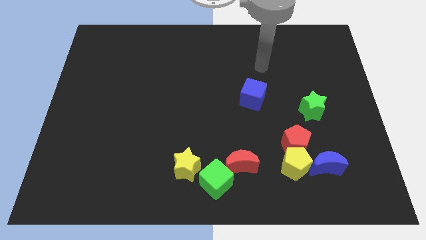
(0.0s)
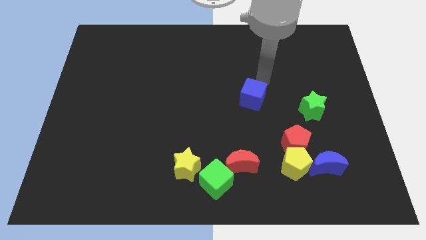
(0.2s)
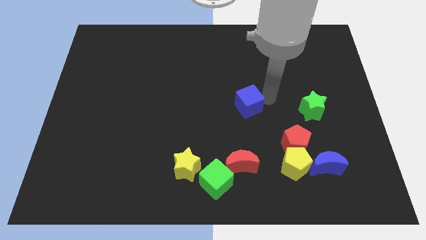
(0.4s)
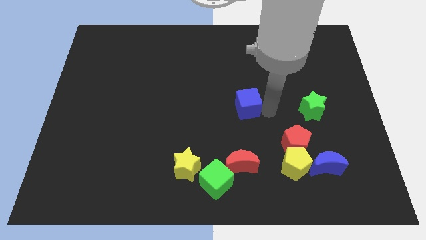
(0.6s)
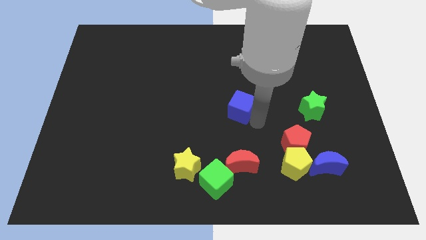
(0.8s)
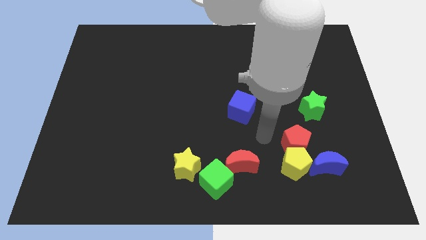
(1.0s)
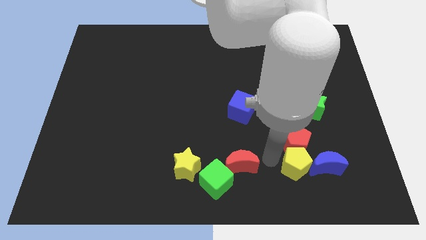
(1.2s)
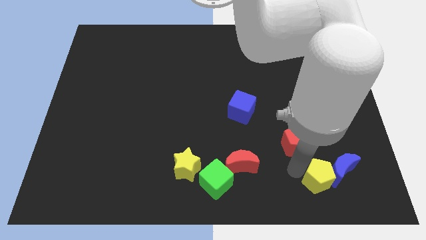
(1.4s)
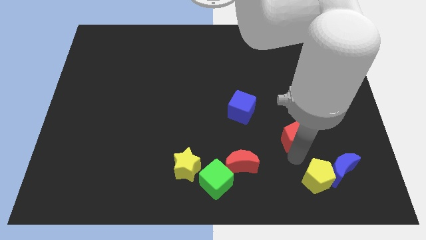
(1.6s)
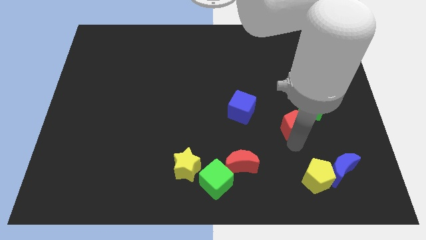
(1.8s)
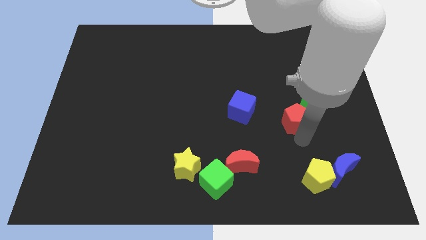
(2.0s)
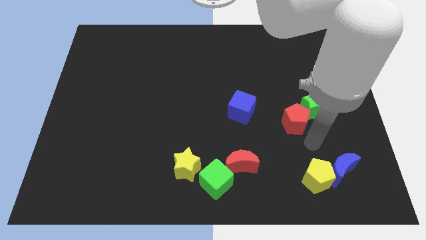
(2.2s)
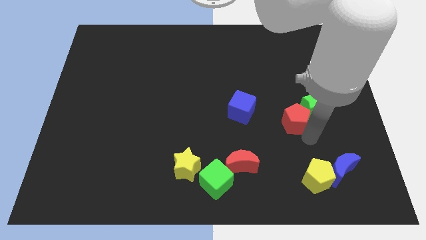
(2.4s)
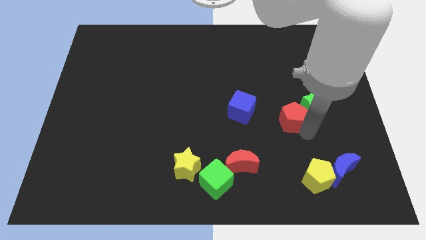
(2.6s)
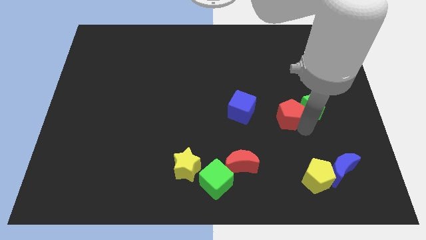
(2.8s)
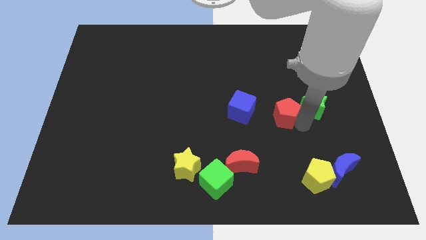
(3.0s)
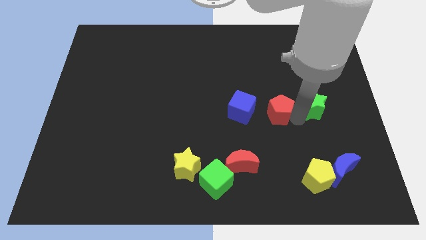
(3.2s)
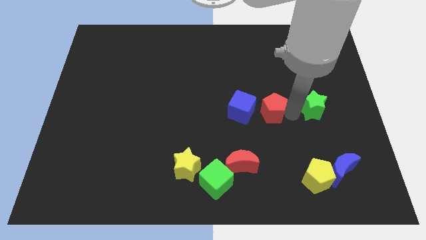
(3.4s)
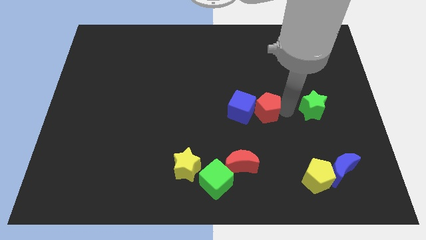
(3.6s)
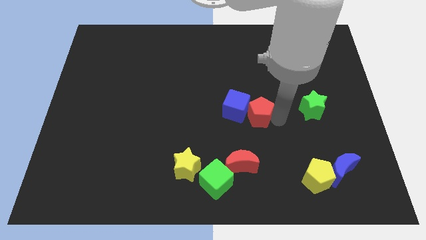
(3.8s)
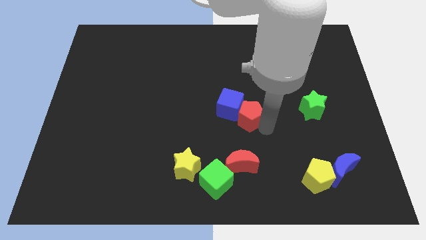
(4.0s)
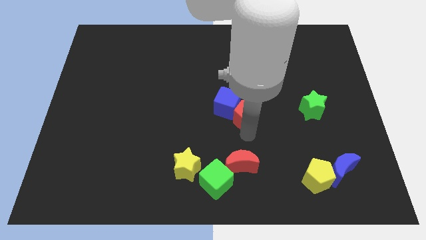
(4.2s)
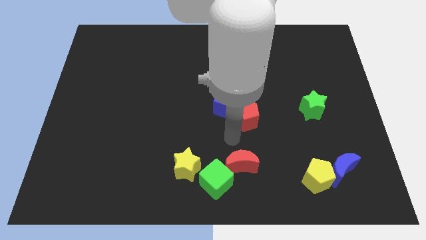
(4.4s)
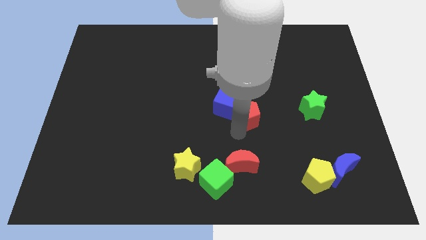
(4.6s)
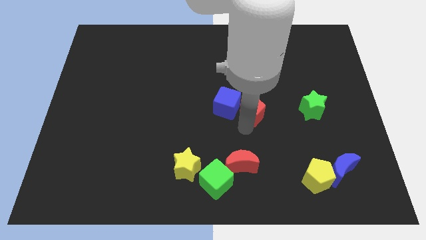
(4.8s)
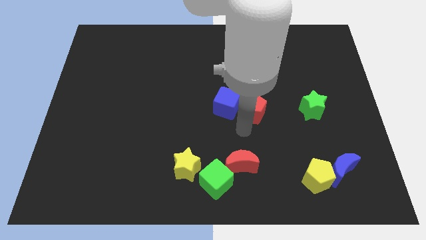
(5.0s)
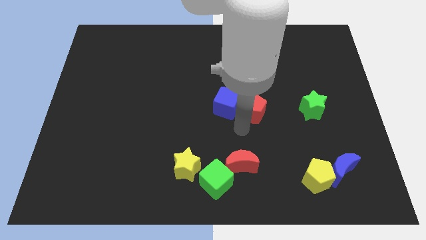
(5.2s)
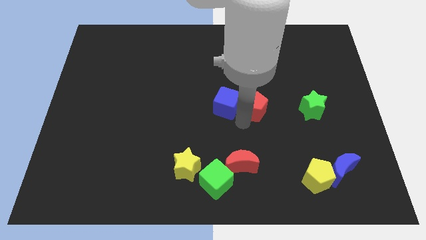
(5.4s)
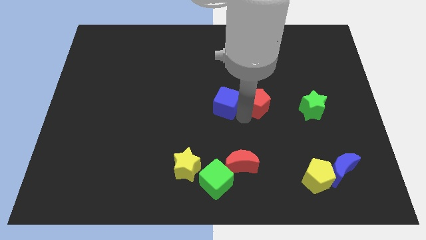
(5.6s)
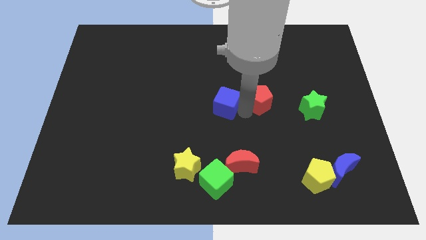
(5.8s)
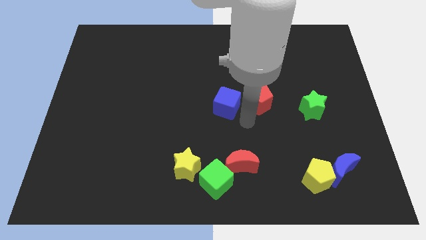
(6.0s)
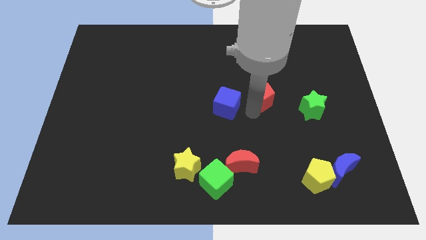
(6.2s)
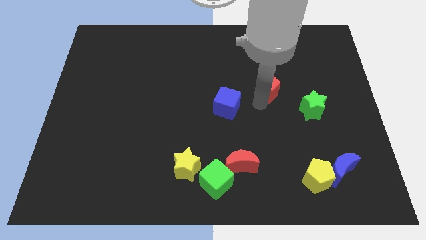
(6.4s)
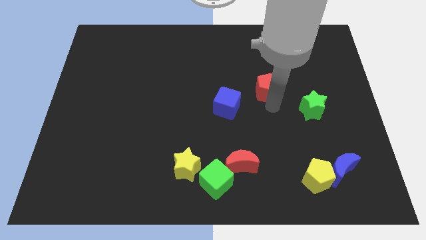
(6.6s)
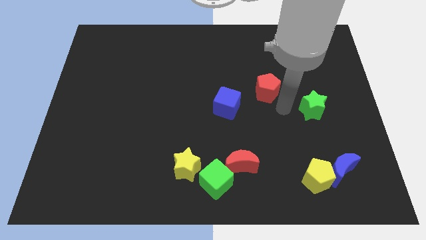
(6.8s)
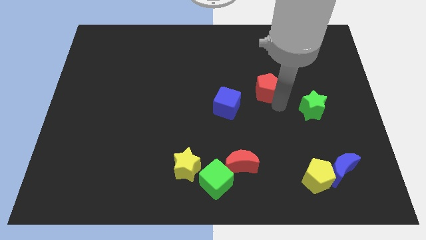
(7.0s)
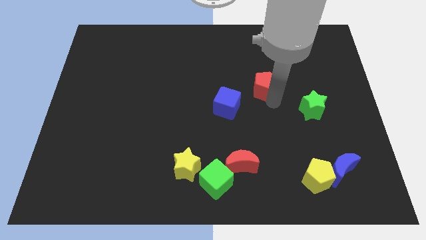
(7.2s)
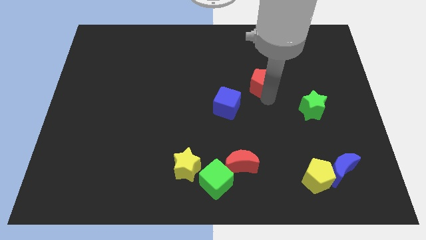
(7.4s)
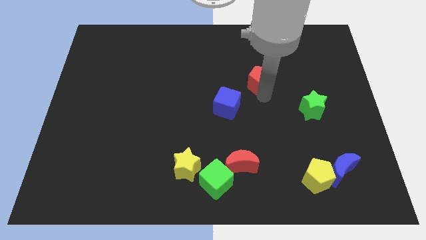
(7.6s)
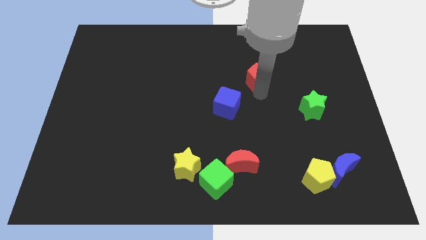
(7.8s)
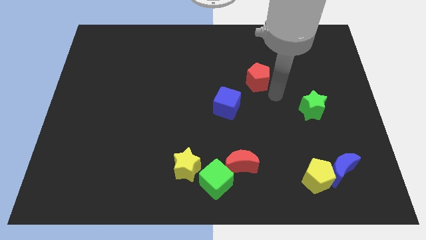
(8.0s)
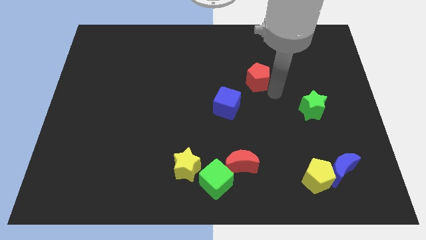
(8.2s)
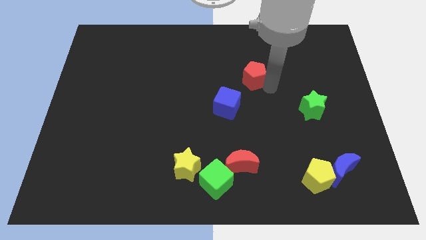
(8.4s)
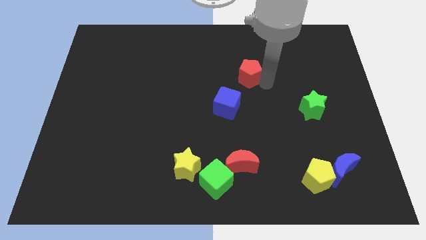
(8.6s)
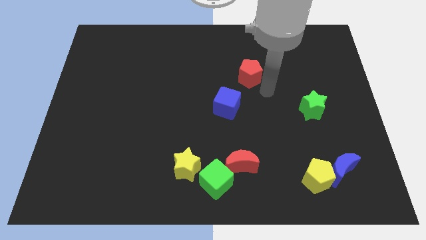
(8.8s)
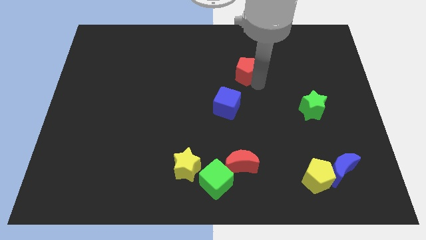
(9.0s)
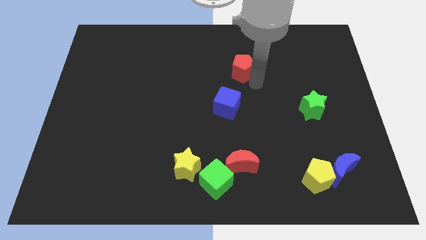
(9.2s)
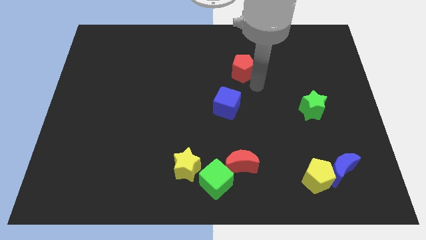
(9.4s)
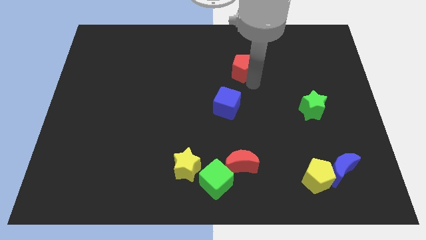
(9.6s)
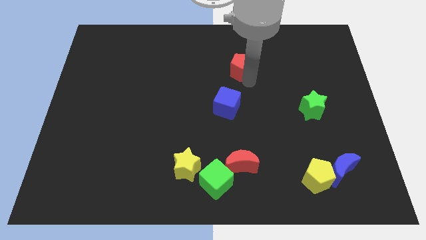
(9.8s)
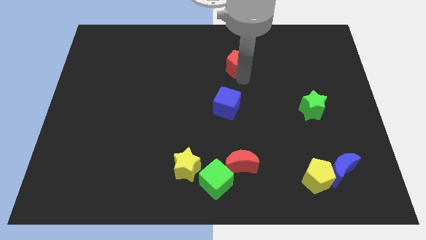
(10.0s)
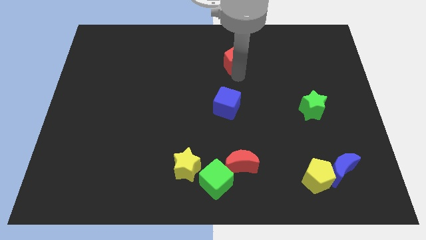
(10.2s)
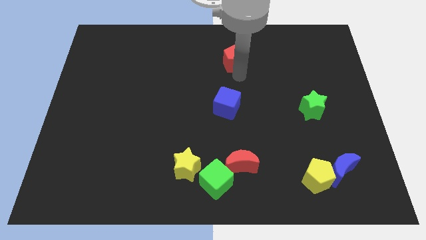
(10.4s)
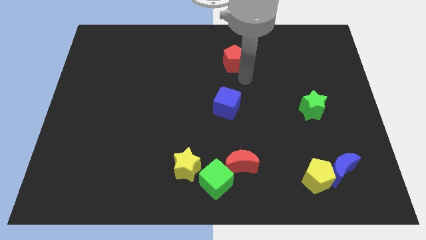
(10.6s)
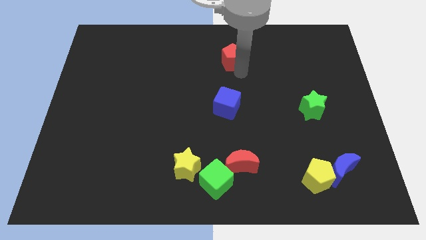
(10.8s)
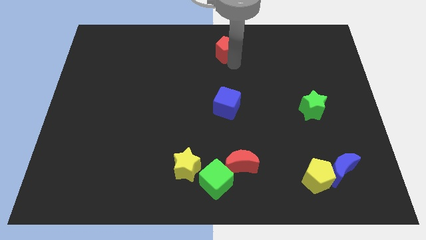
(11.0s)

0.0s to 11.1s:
put the red pentagon to the top side
